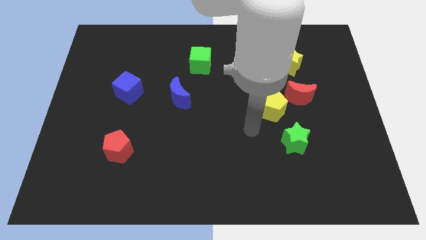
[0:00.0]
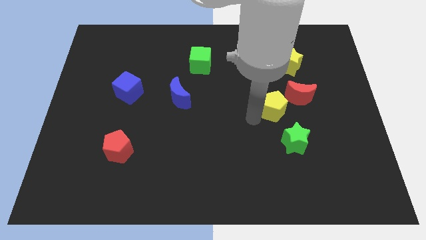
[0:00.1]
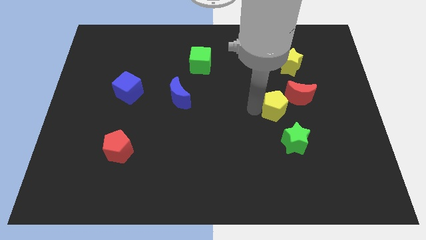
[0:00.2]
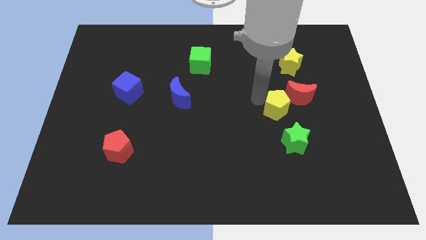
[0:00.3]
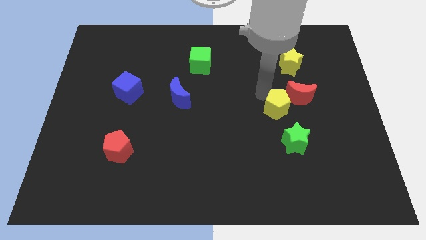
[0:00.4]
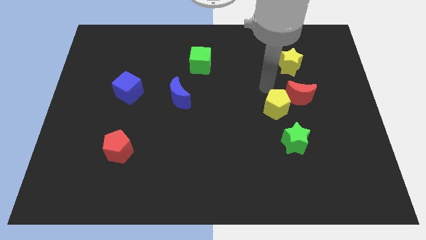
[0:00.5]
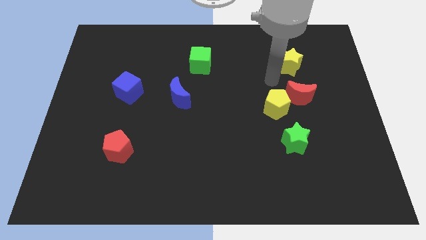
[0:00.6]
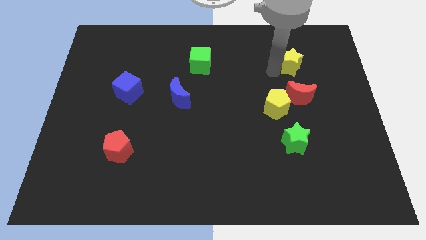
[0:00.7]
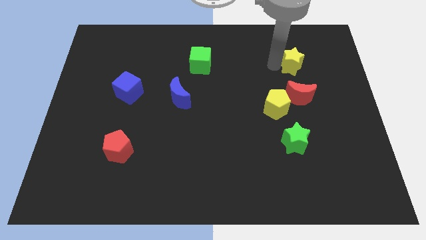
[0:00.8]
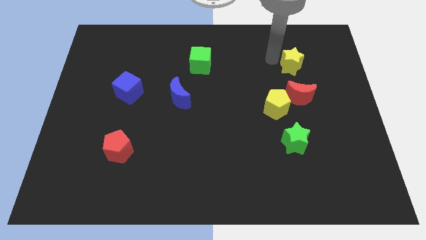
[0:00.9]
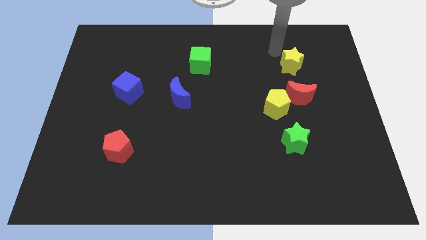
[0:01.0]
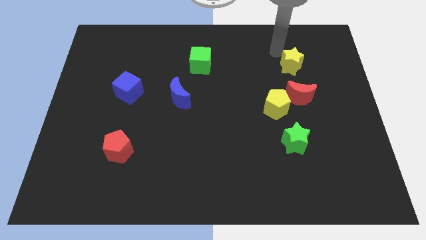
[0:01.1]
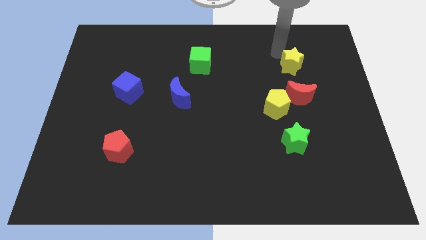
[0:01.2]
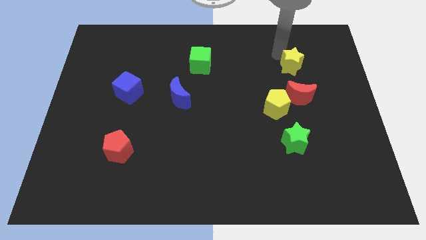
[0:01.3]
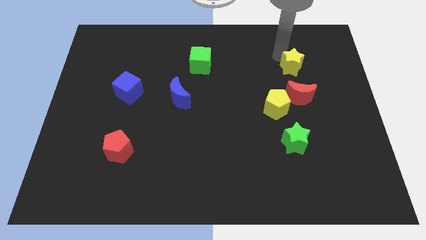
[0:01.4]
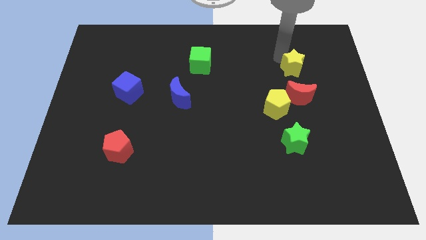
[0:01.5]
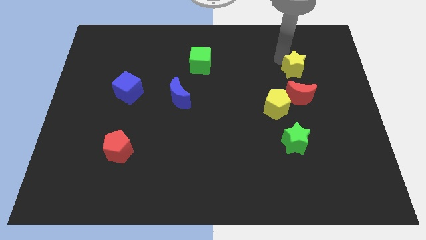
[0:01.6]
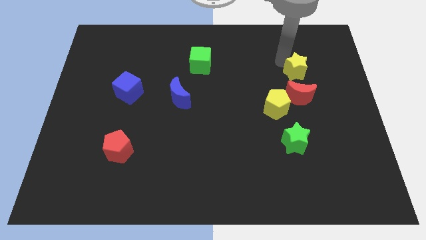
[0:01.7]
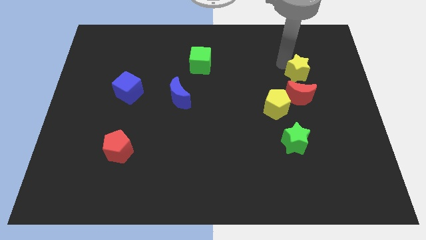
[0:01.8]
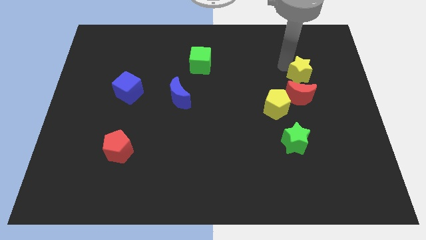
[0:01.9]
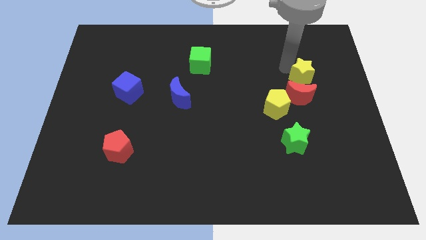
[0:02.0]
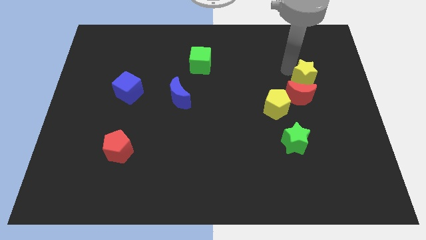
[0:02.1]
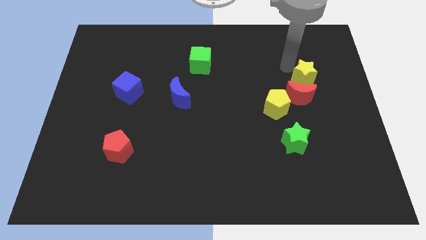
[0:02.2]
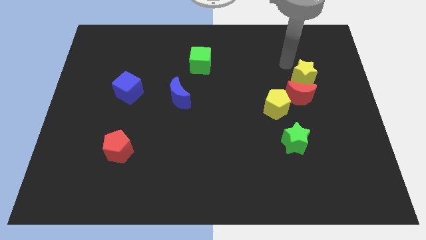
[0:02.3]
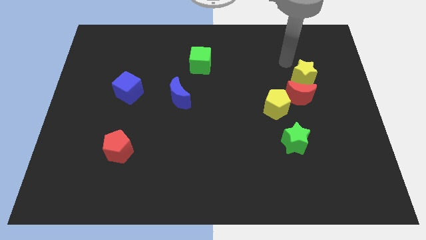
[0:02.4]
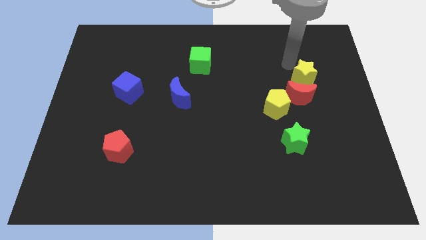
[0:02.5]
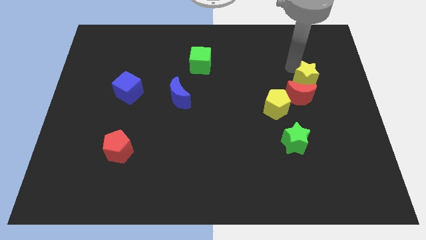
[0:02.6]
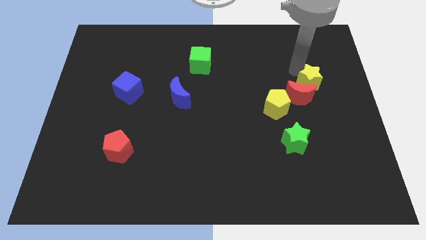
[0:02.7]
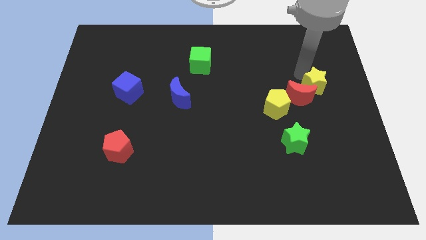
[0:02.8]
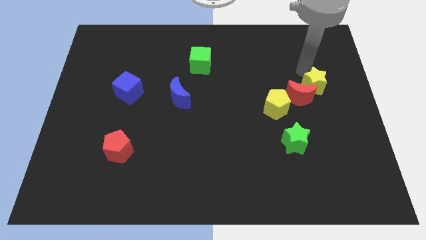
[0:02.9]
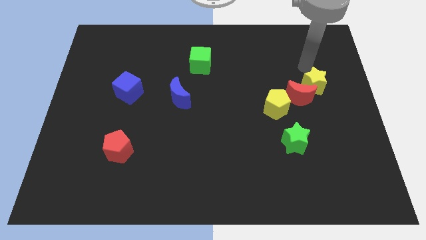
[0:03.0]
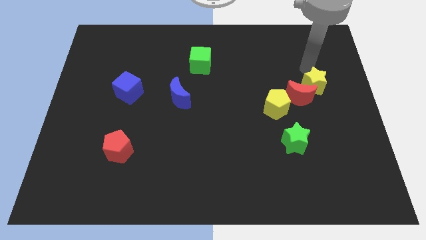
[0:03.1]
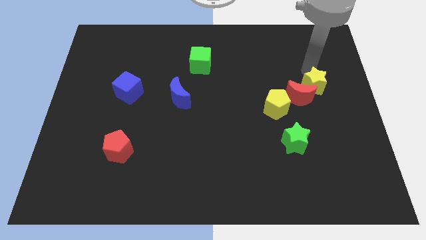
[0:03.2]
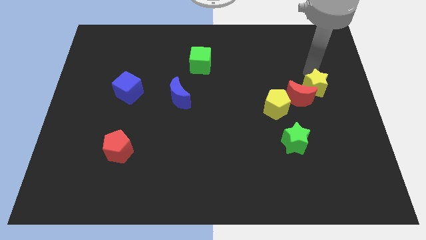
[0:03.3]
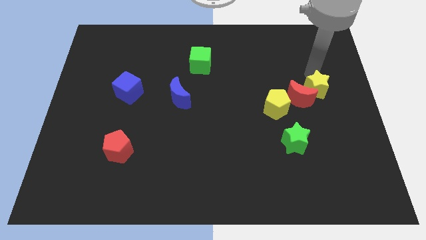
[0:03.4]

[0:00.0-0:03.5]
move the yellow star downwards slightly

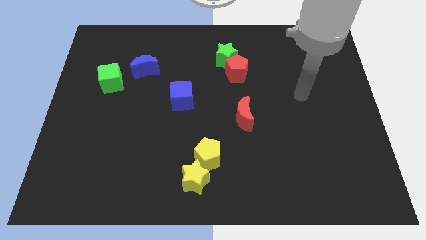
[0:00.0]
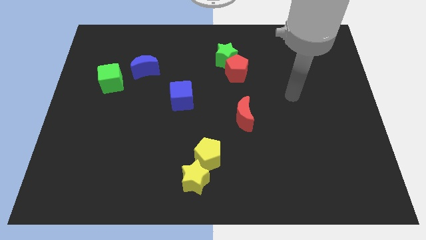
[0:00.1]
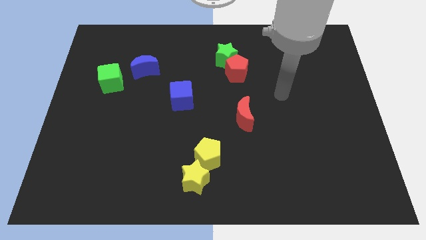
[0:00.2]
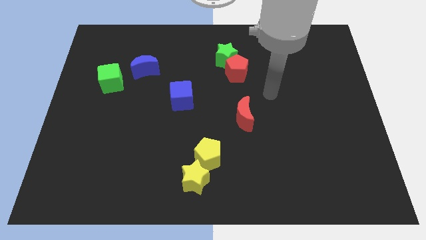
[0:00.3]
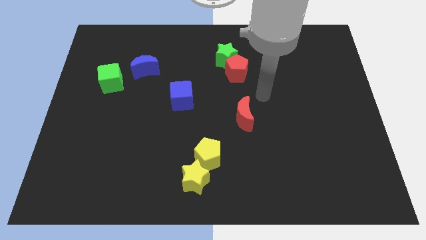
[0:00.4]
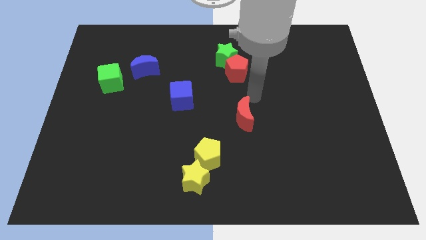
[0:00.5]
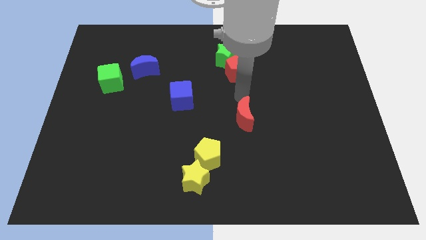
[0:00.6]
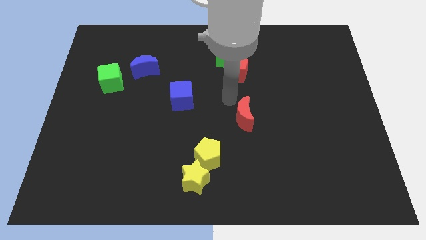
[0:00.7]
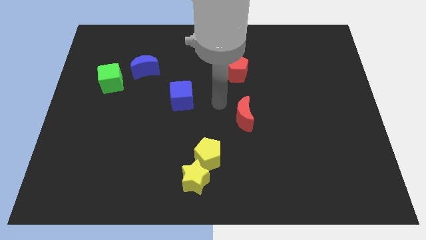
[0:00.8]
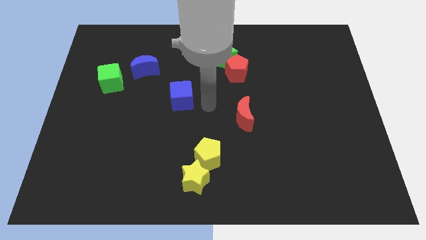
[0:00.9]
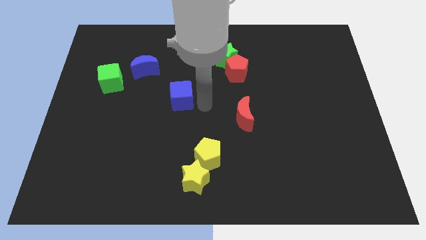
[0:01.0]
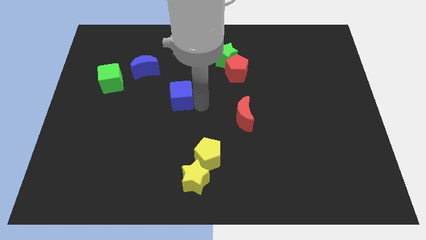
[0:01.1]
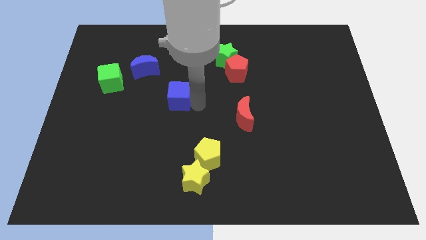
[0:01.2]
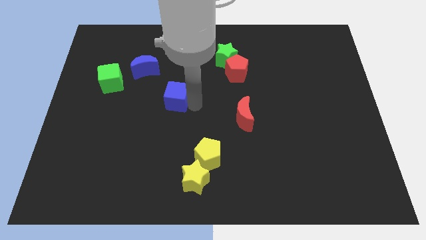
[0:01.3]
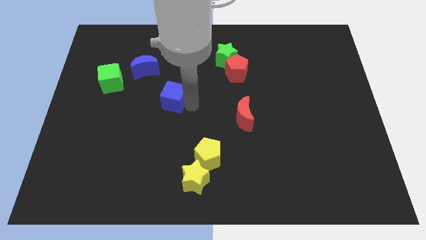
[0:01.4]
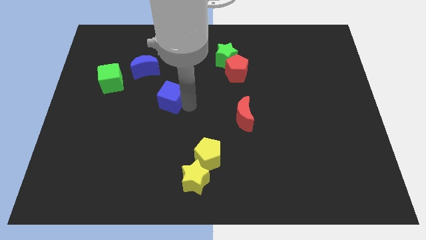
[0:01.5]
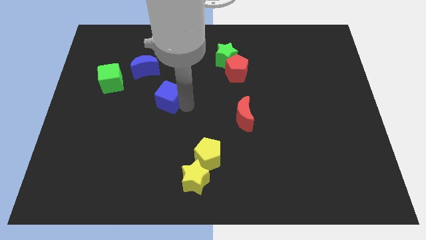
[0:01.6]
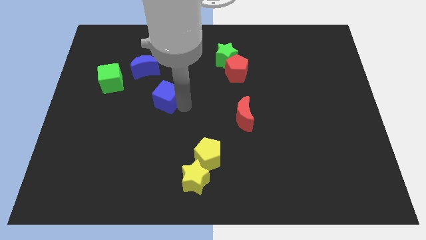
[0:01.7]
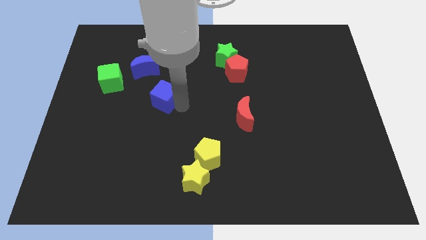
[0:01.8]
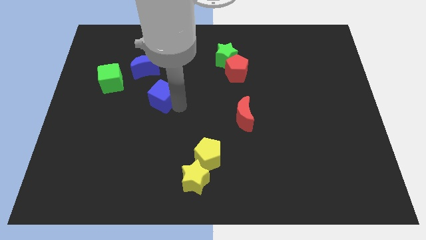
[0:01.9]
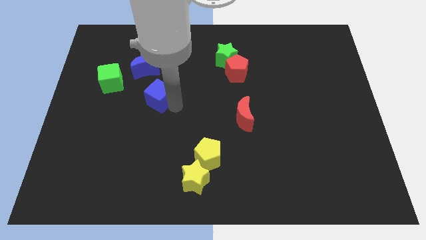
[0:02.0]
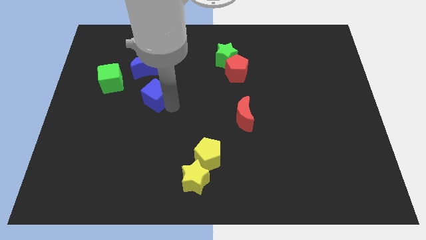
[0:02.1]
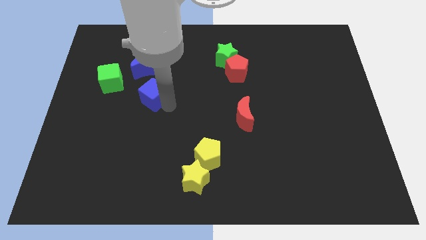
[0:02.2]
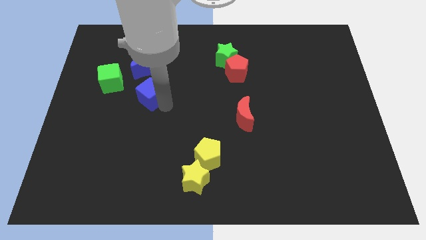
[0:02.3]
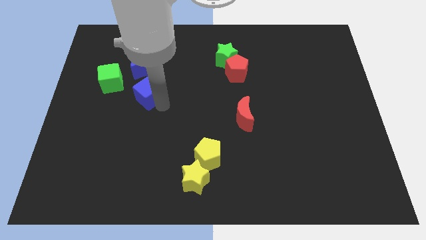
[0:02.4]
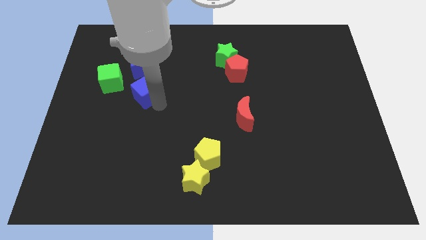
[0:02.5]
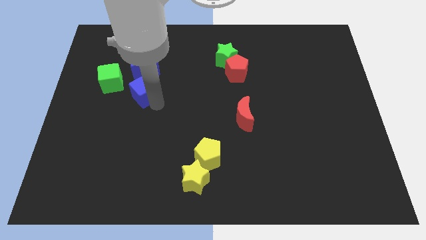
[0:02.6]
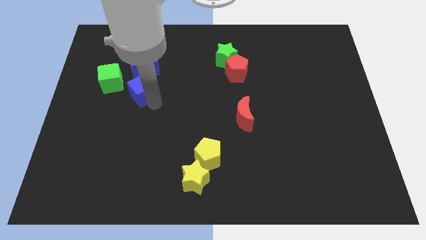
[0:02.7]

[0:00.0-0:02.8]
push the blue cube up and left diagonally a little

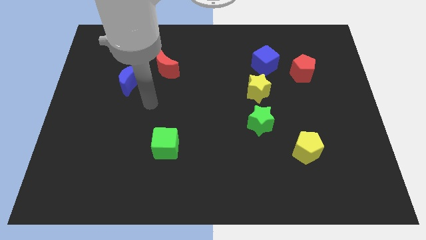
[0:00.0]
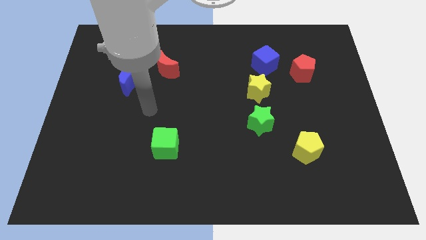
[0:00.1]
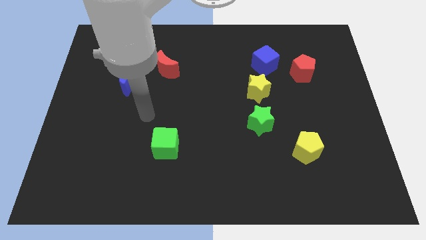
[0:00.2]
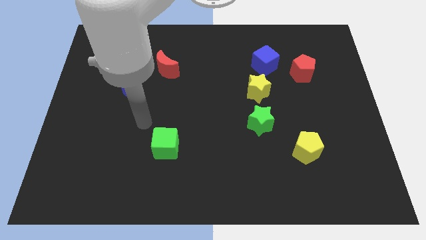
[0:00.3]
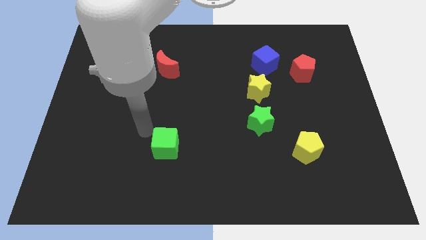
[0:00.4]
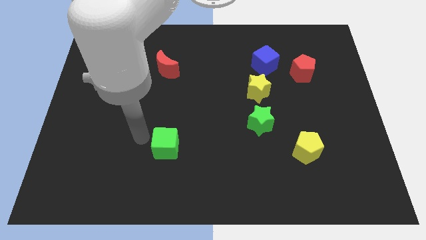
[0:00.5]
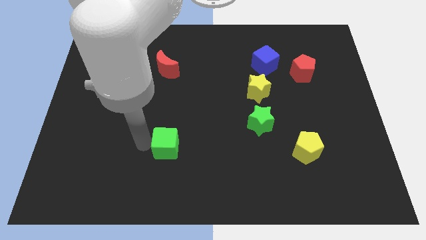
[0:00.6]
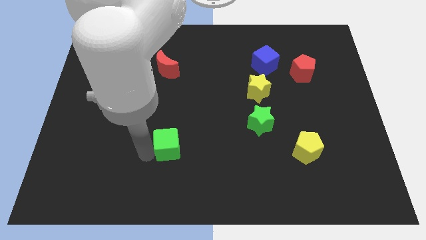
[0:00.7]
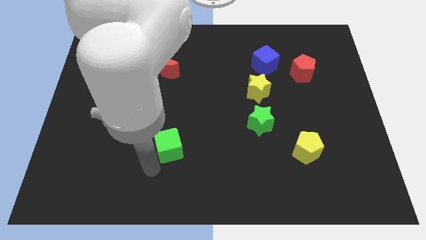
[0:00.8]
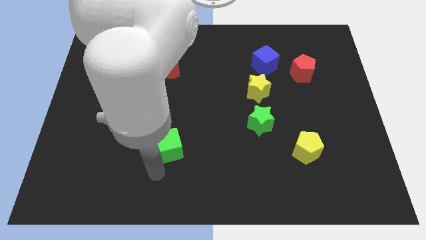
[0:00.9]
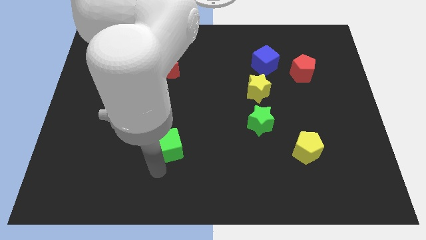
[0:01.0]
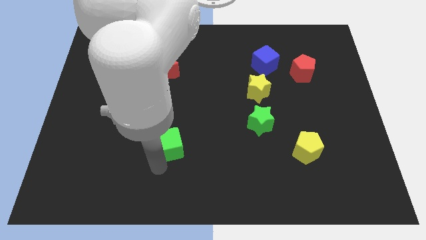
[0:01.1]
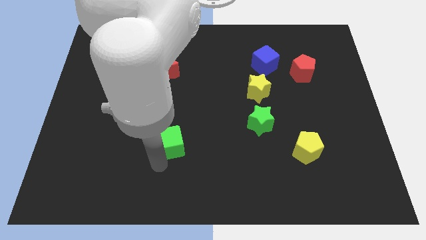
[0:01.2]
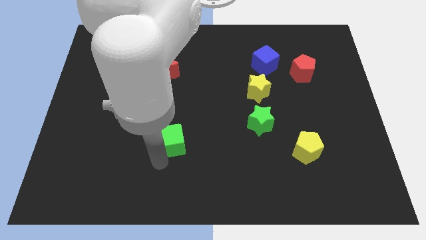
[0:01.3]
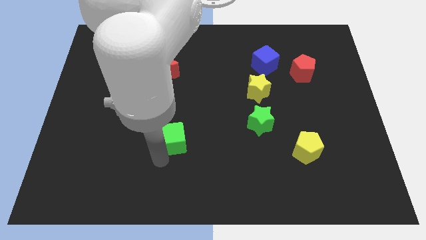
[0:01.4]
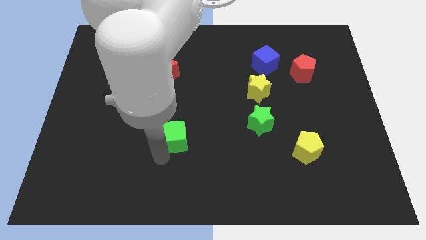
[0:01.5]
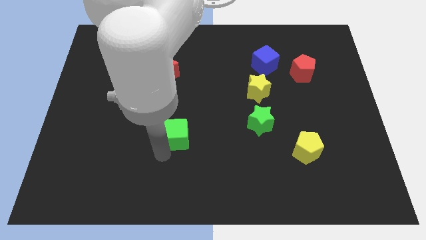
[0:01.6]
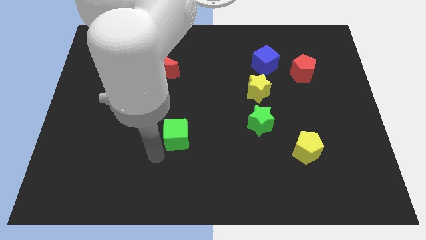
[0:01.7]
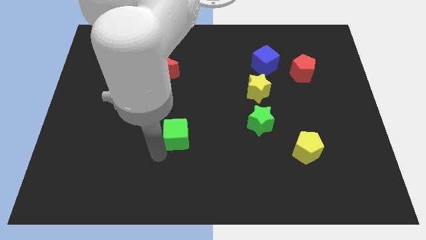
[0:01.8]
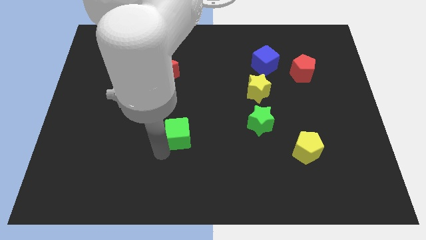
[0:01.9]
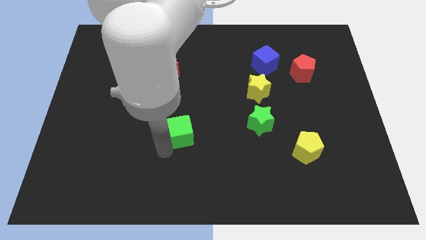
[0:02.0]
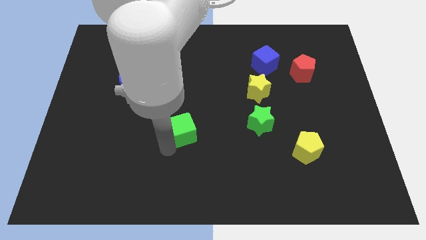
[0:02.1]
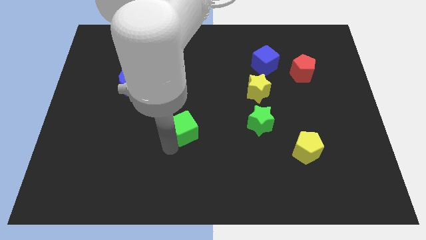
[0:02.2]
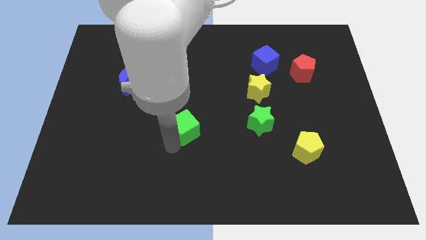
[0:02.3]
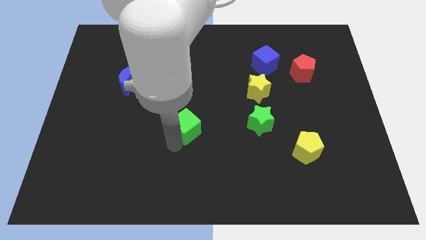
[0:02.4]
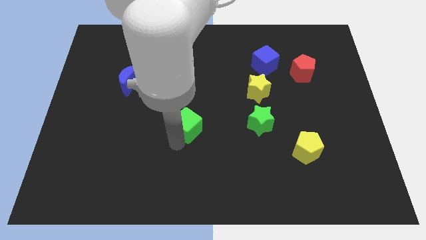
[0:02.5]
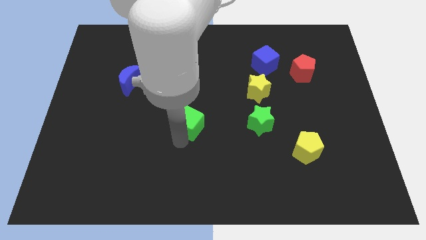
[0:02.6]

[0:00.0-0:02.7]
slightly move the green cube upwards and to the right
